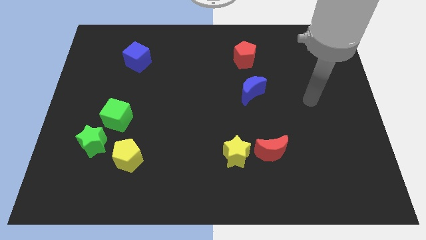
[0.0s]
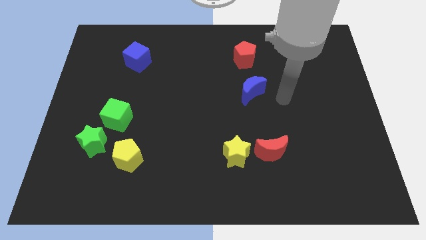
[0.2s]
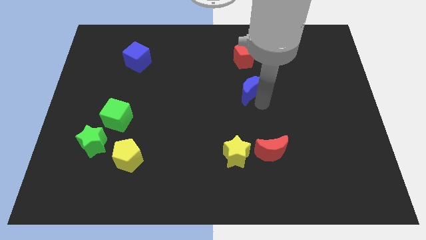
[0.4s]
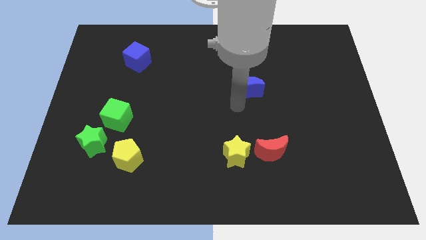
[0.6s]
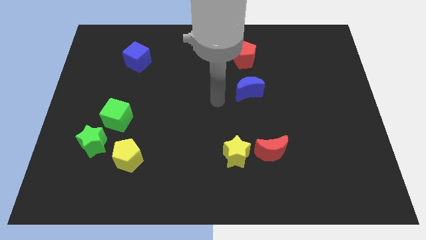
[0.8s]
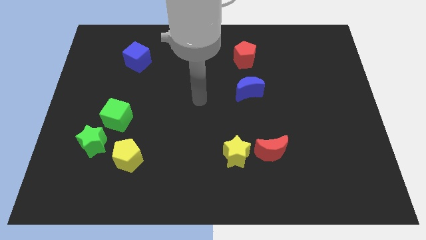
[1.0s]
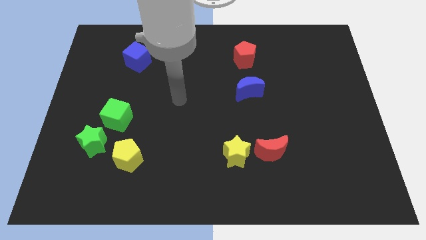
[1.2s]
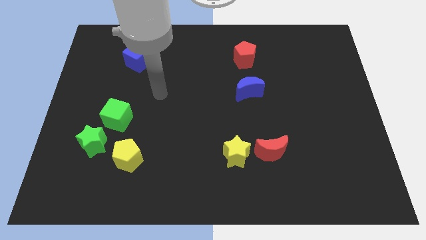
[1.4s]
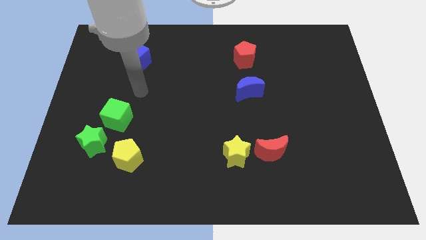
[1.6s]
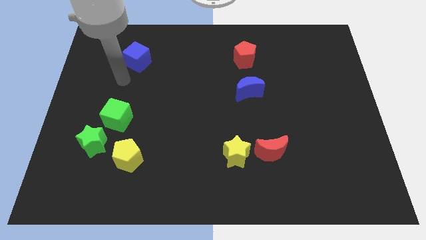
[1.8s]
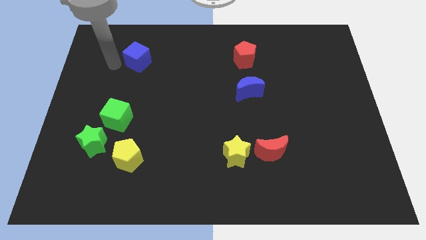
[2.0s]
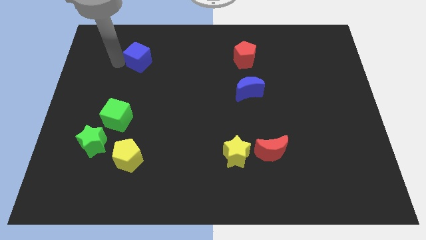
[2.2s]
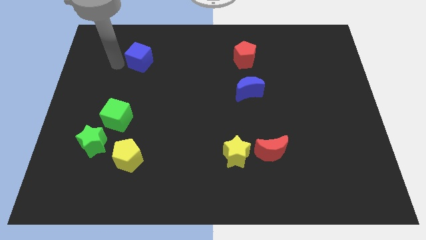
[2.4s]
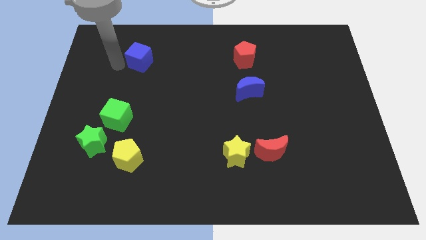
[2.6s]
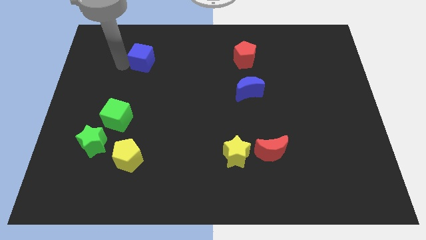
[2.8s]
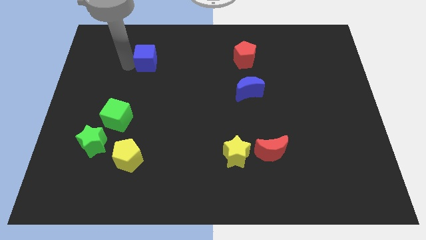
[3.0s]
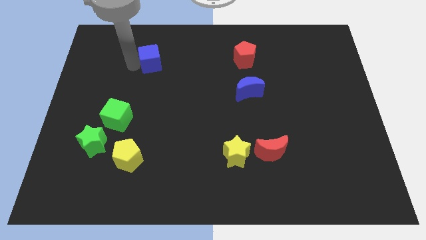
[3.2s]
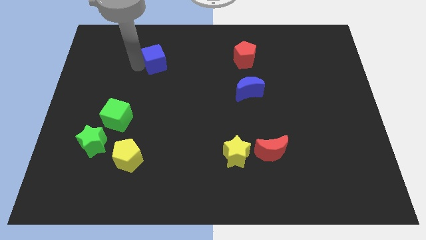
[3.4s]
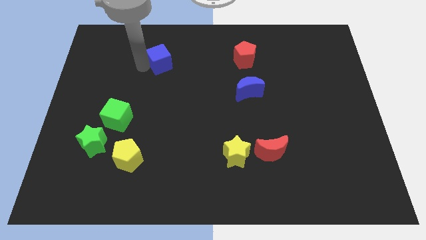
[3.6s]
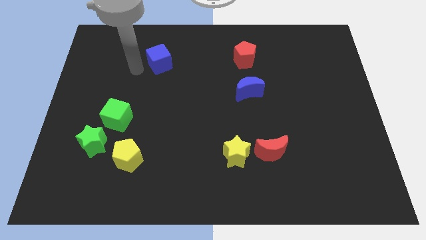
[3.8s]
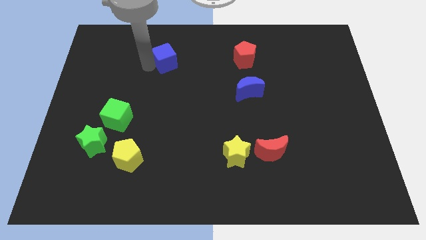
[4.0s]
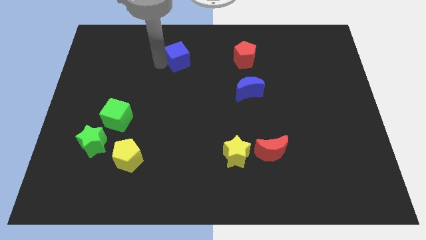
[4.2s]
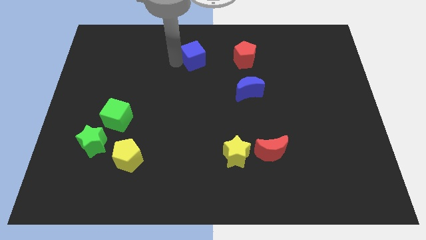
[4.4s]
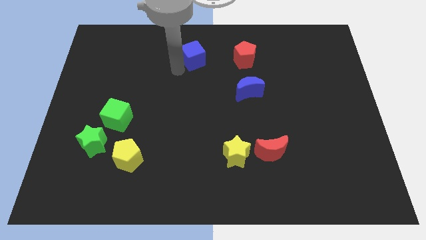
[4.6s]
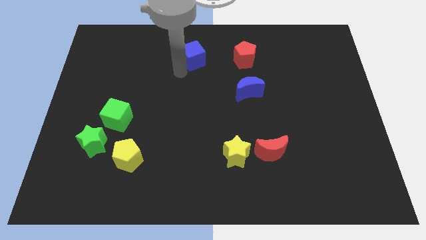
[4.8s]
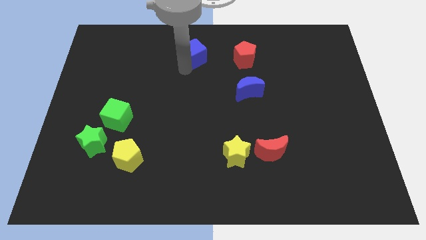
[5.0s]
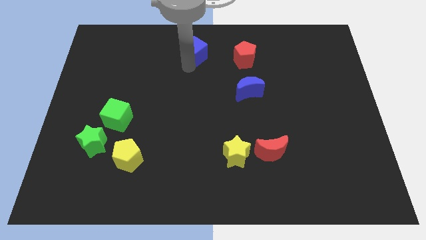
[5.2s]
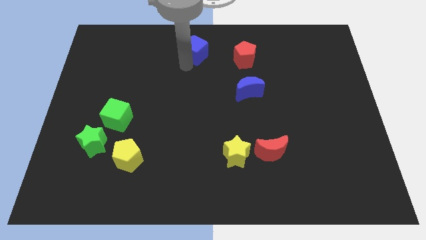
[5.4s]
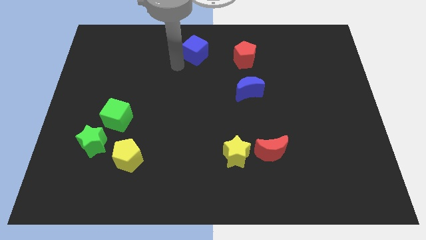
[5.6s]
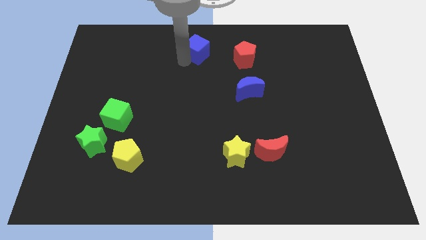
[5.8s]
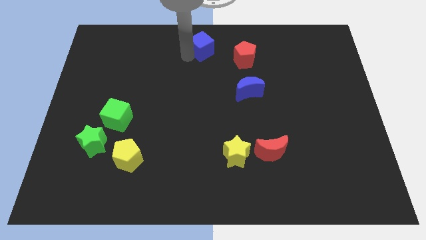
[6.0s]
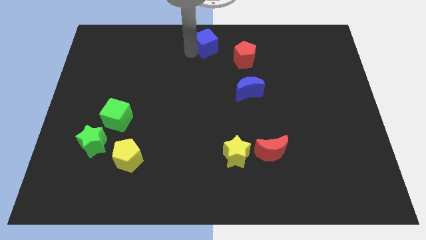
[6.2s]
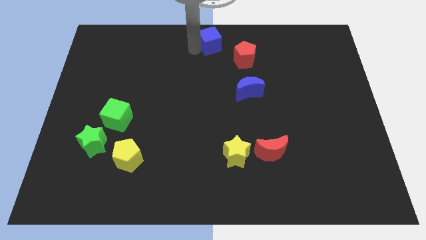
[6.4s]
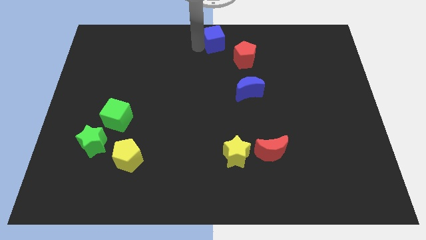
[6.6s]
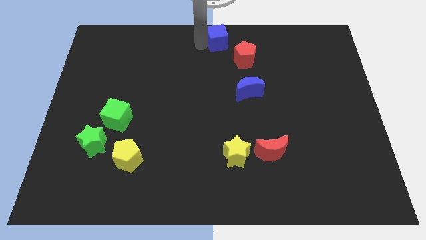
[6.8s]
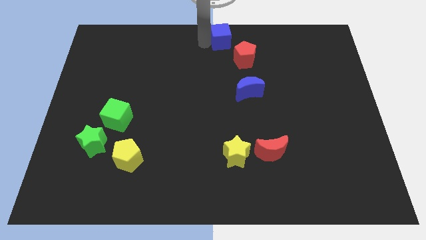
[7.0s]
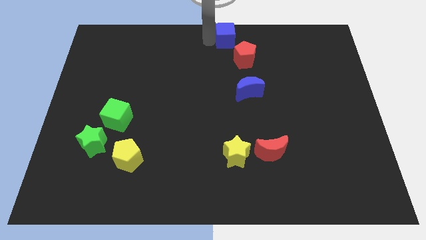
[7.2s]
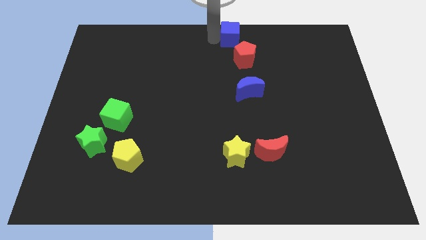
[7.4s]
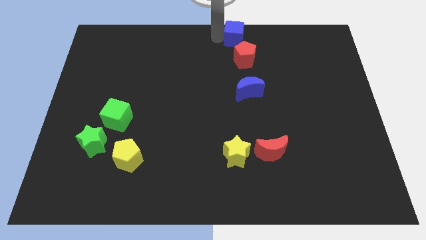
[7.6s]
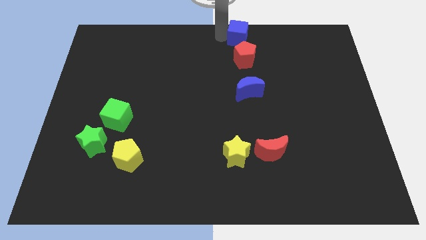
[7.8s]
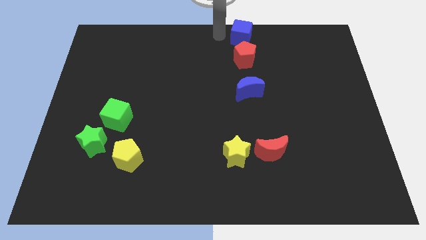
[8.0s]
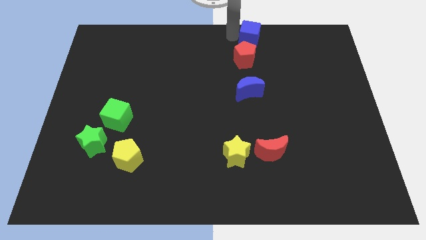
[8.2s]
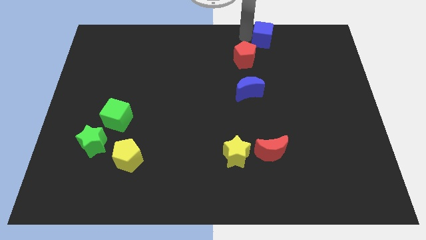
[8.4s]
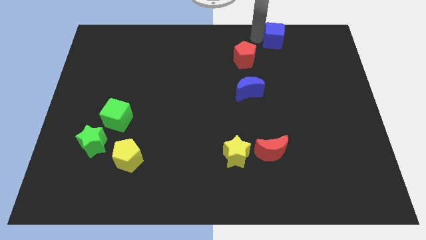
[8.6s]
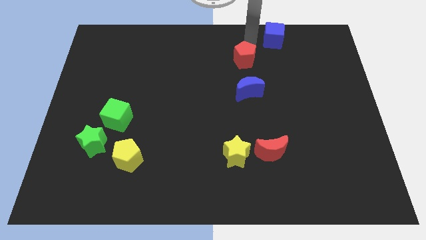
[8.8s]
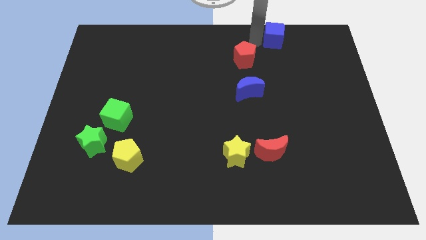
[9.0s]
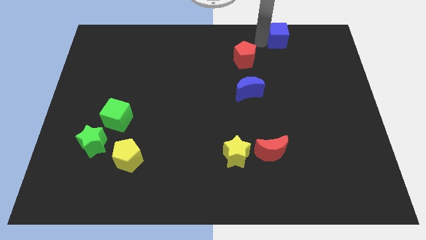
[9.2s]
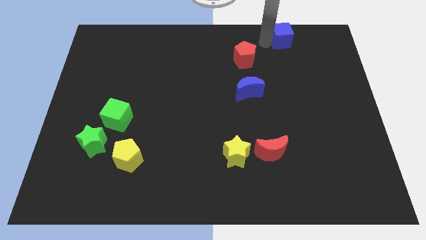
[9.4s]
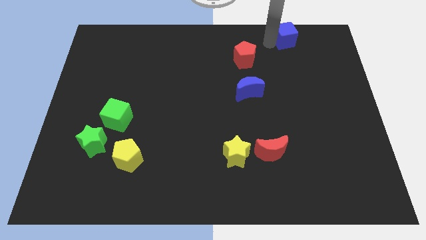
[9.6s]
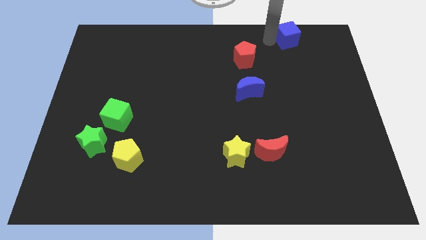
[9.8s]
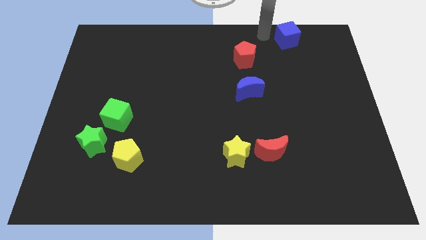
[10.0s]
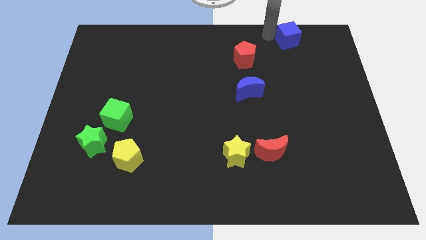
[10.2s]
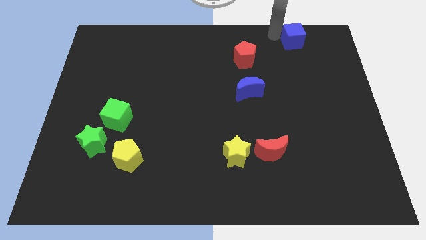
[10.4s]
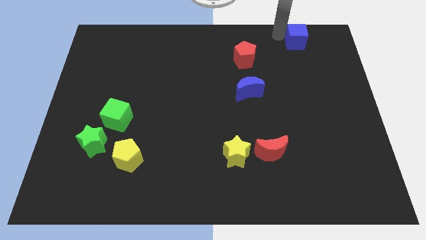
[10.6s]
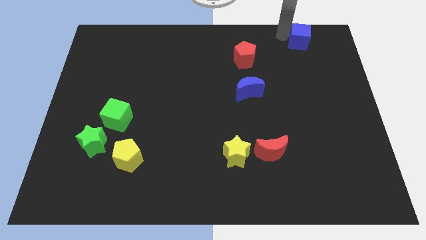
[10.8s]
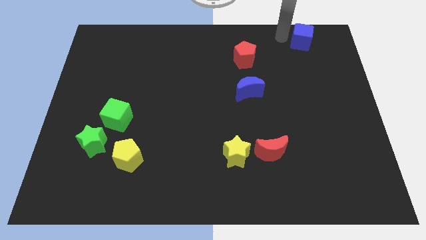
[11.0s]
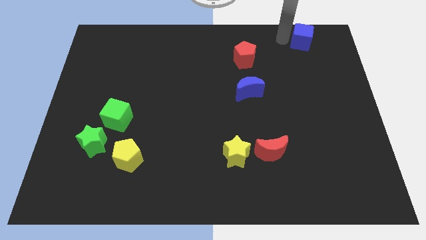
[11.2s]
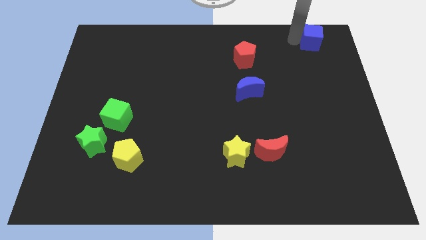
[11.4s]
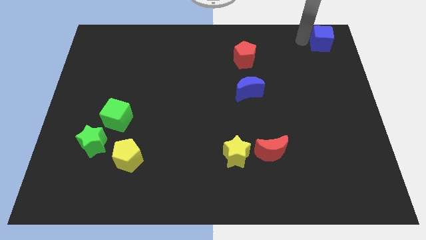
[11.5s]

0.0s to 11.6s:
put the blue cube to the top right of the board
